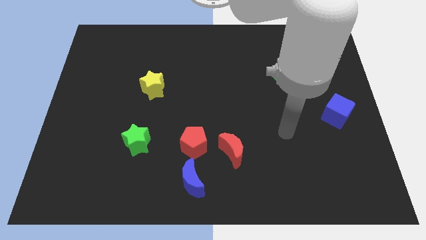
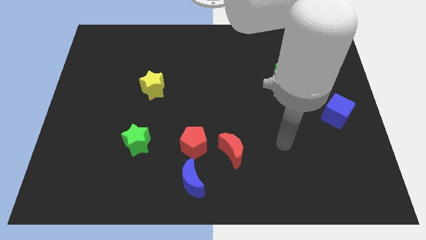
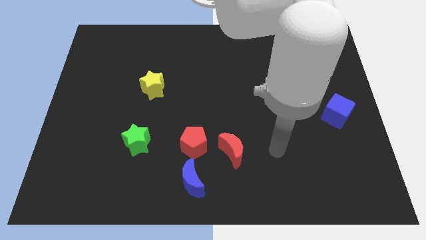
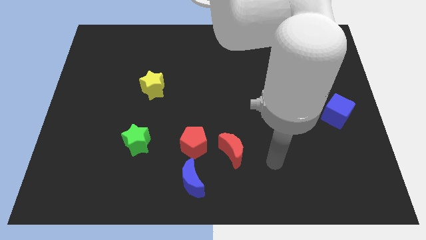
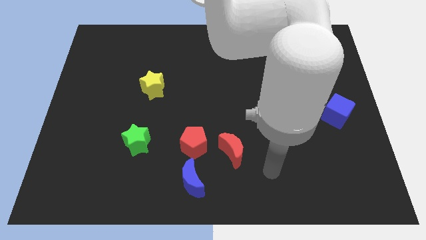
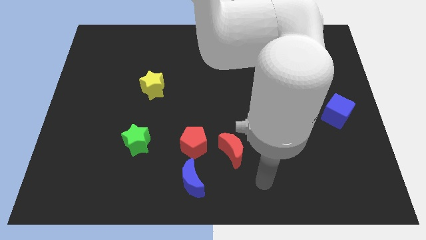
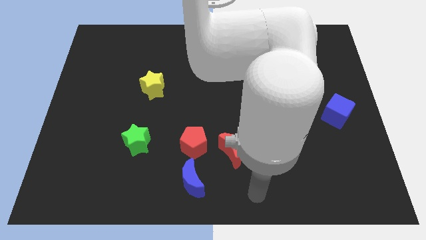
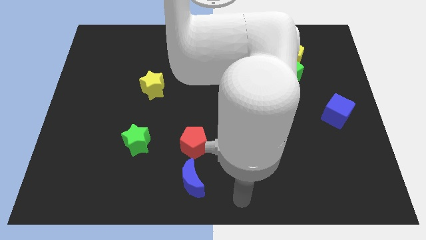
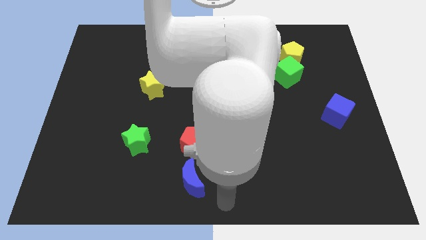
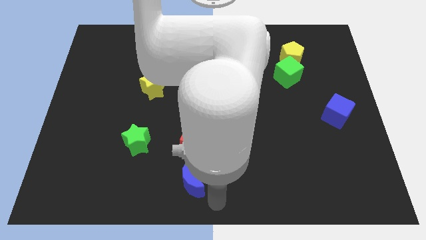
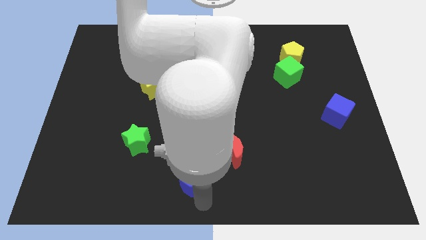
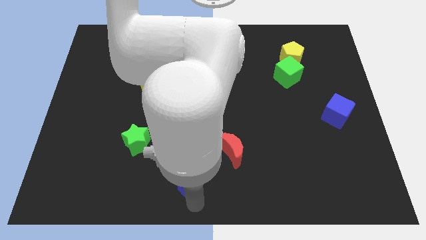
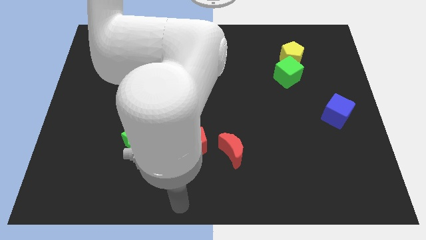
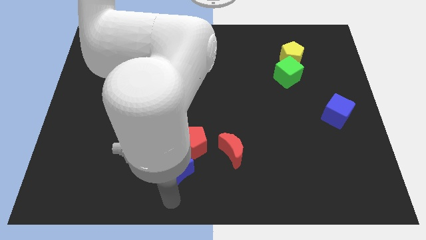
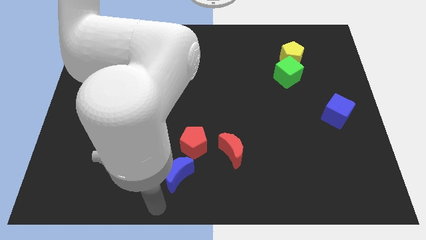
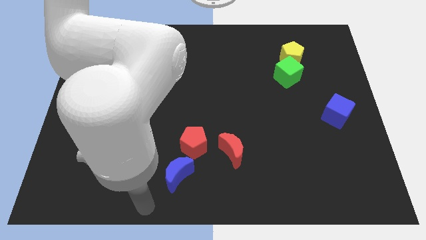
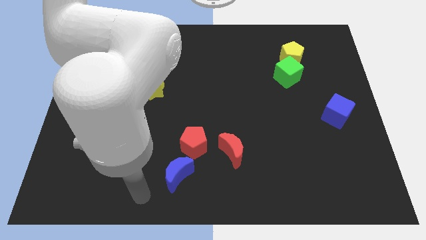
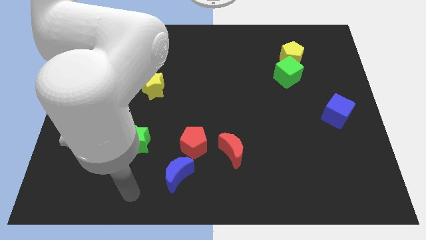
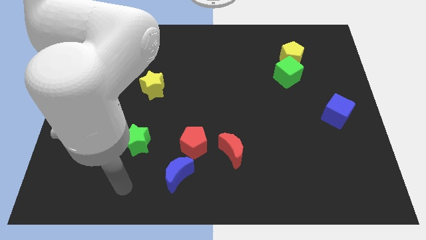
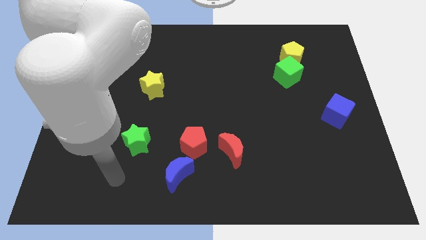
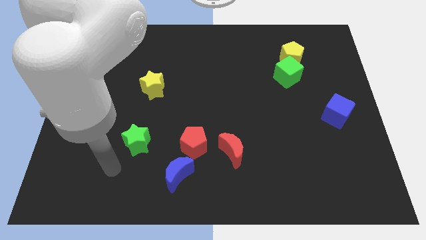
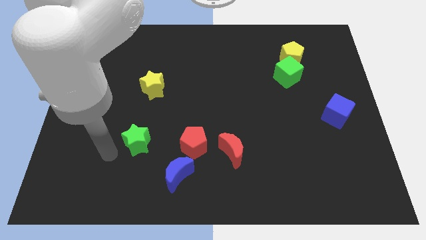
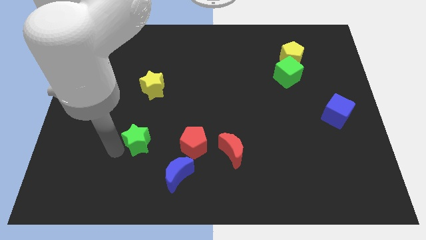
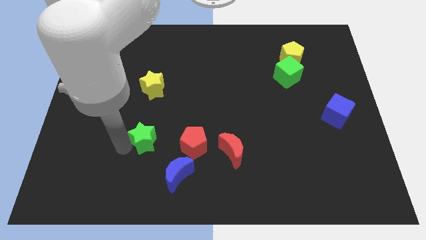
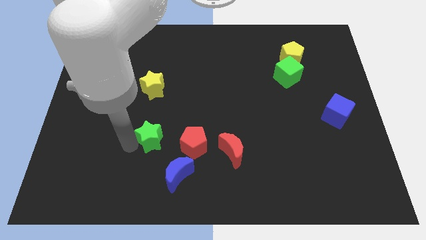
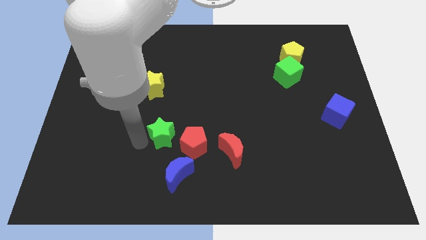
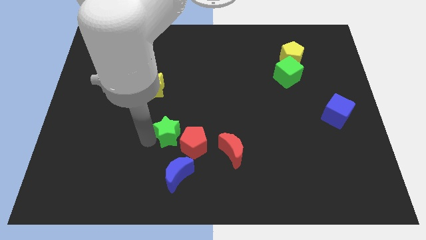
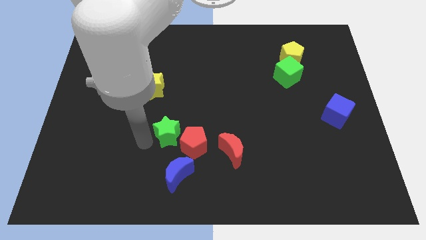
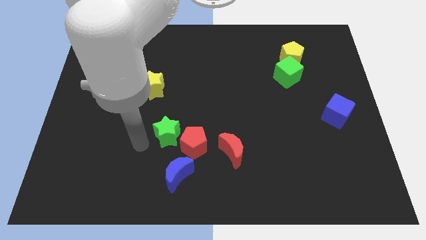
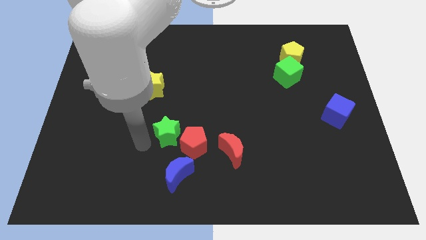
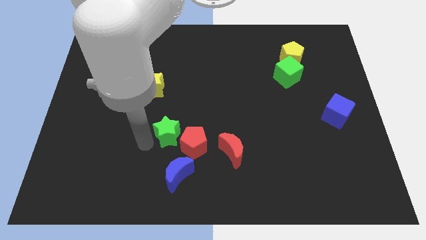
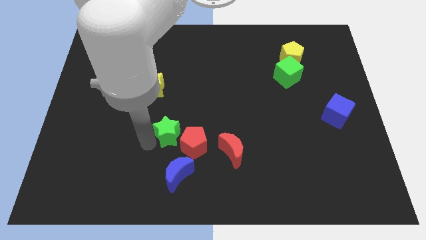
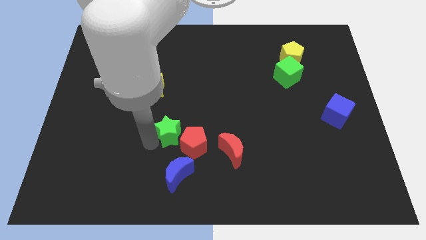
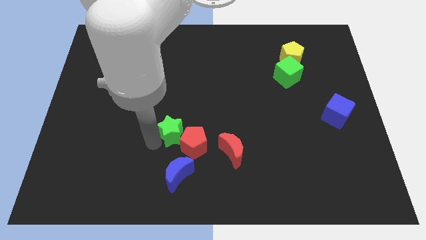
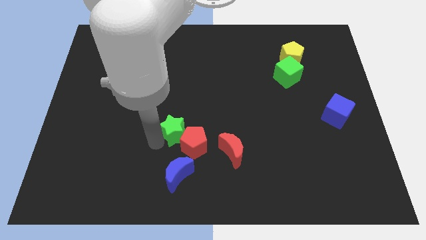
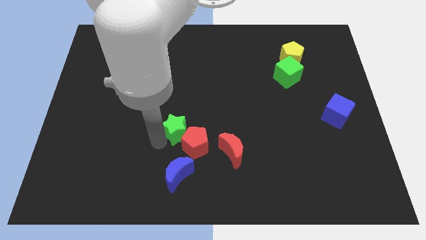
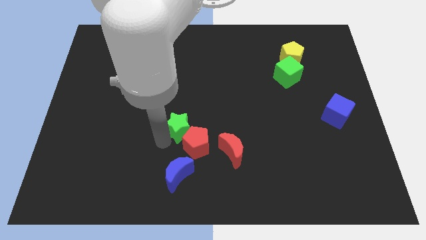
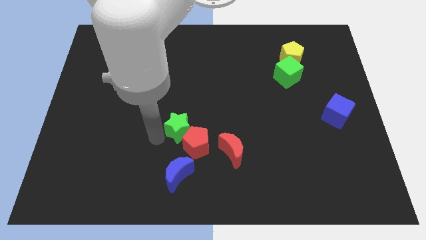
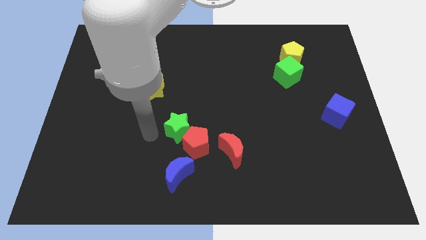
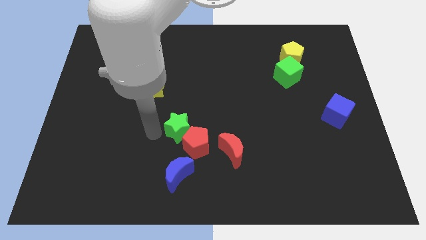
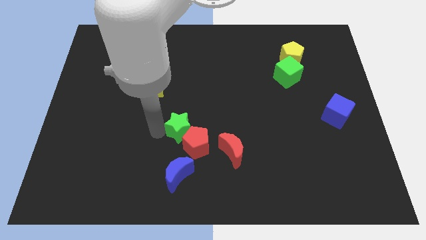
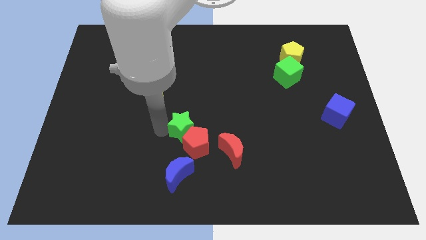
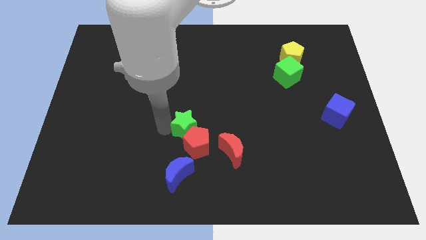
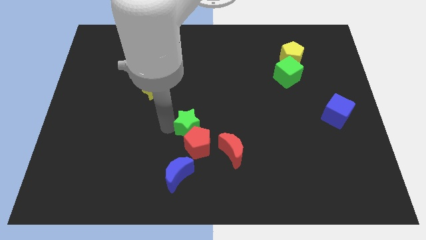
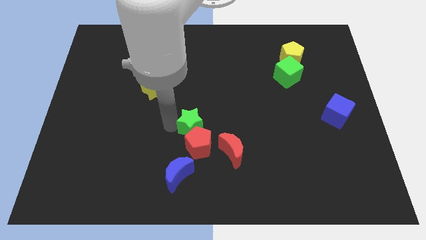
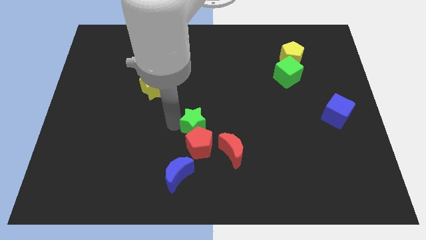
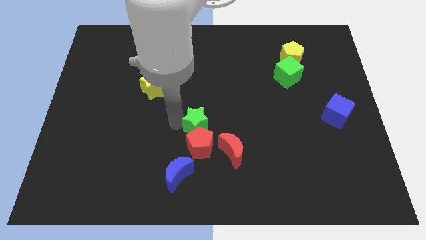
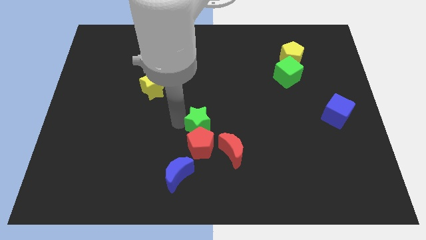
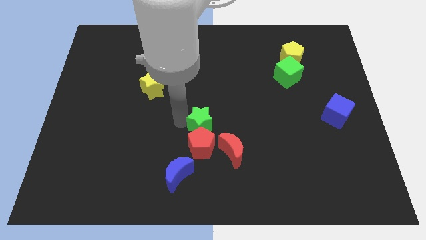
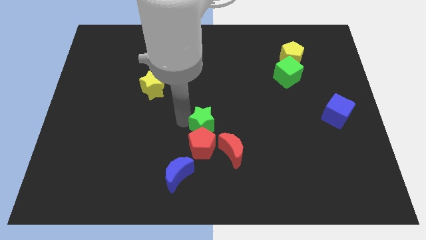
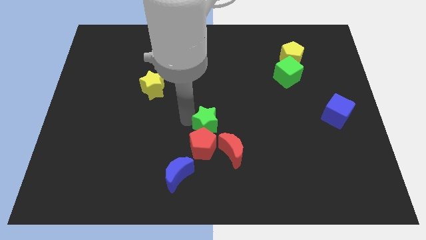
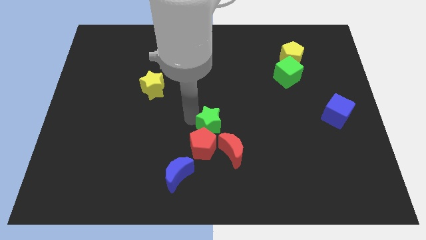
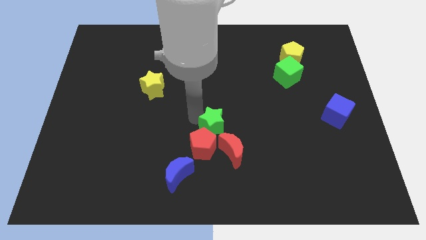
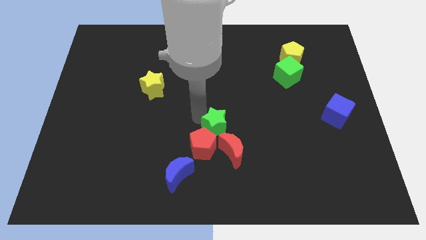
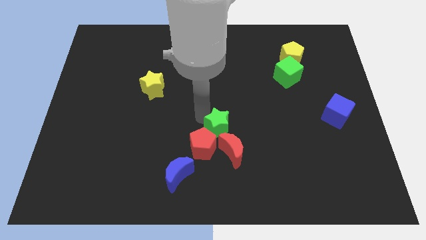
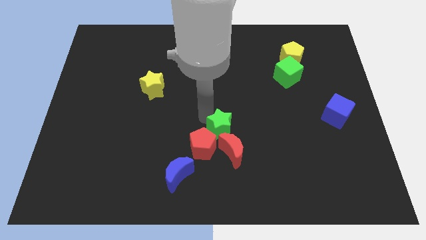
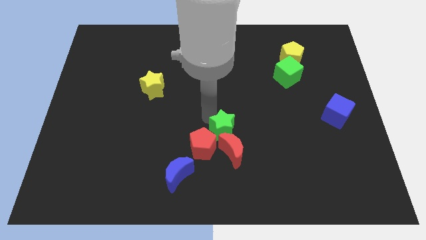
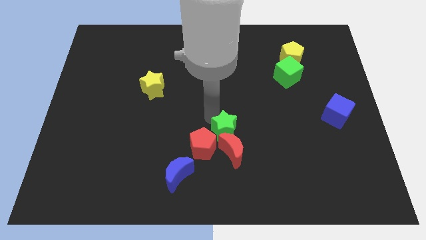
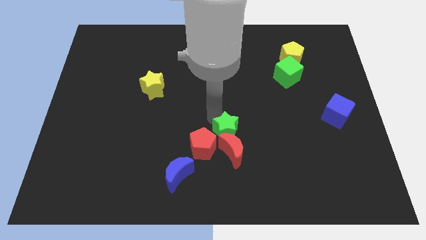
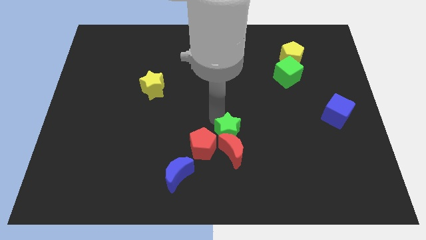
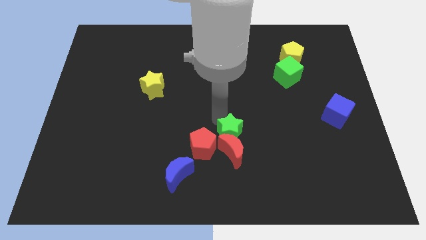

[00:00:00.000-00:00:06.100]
slide the green star to the right

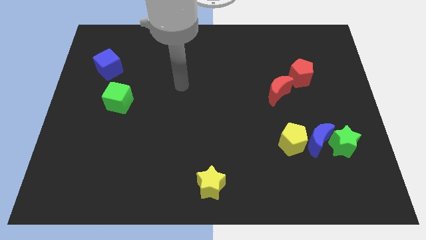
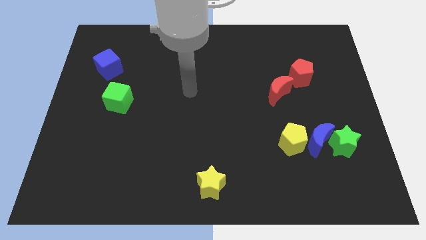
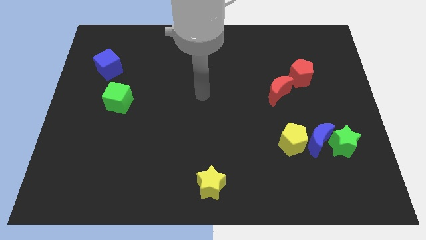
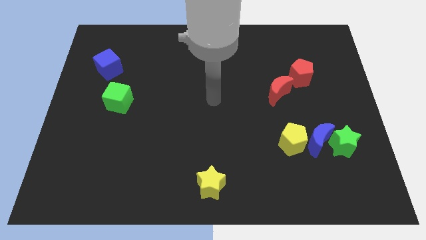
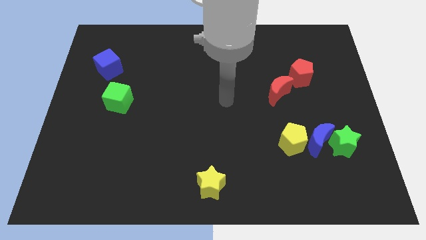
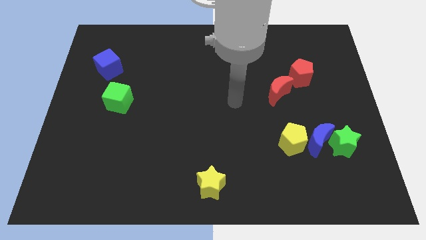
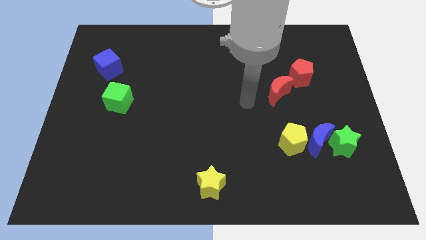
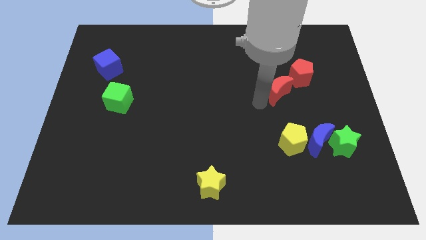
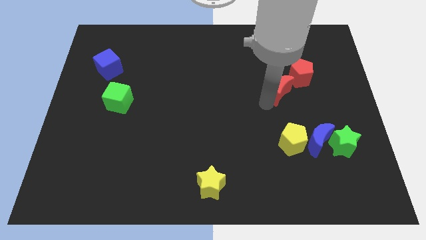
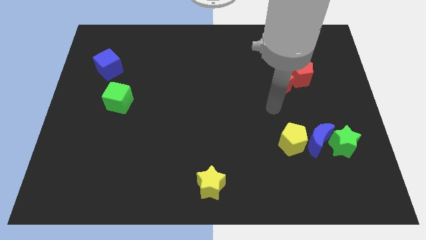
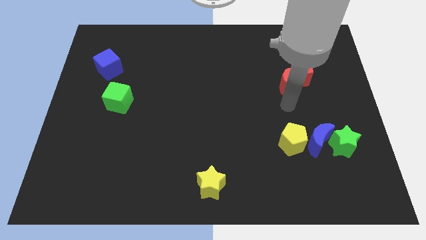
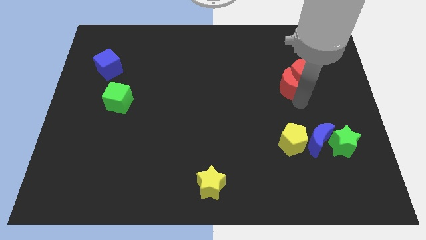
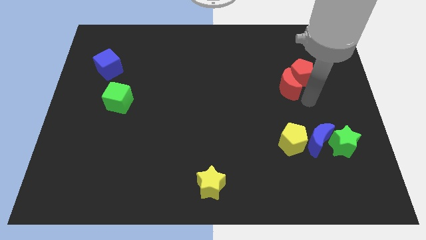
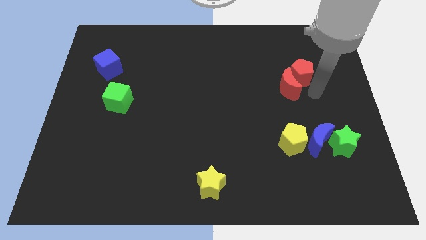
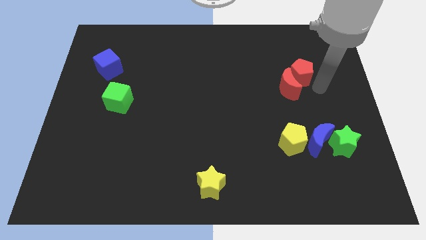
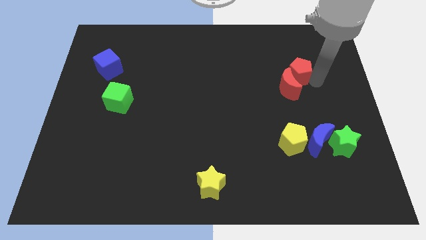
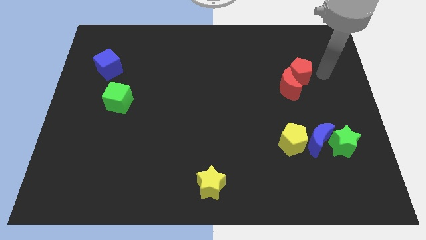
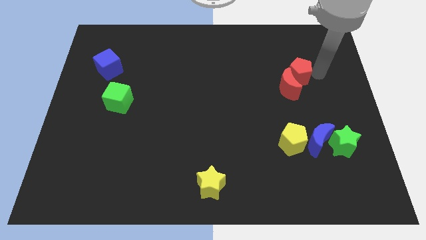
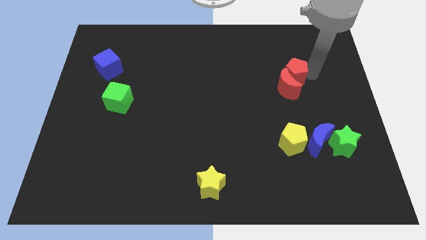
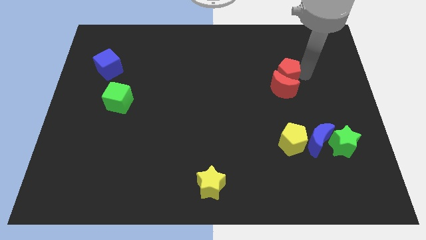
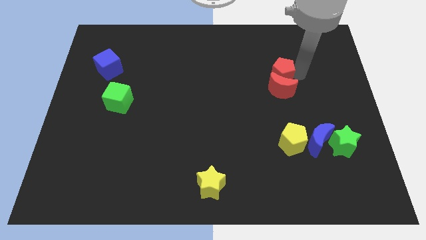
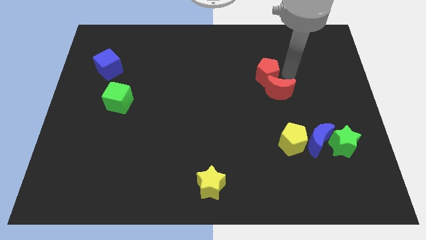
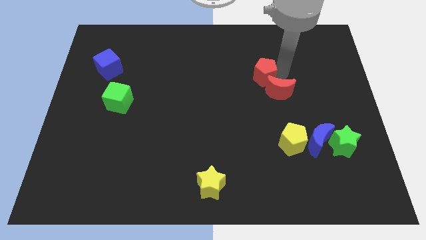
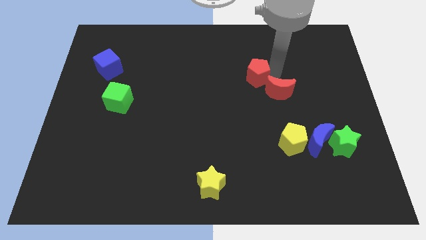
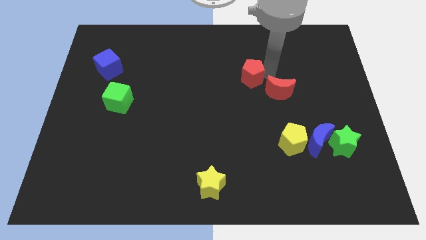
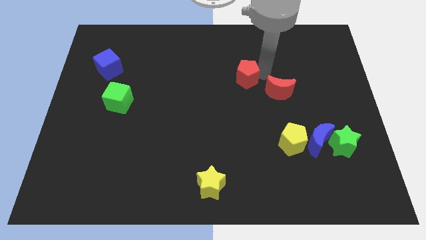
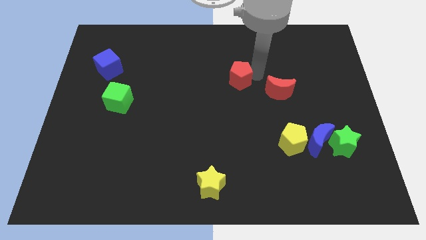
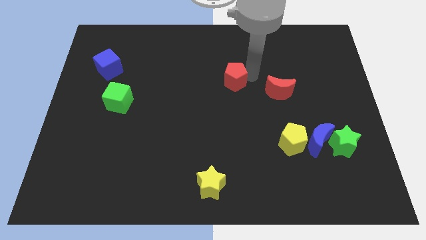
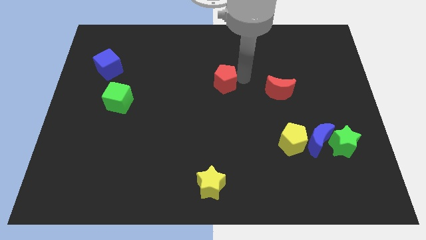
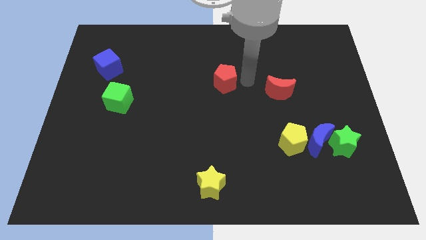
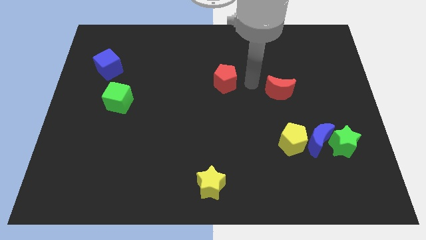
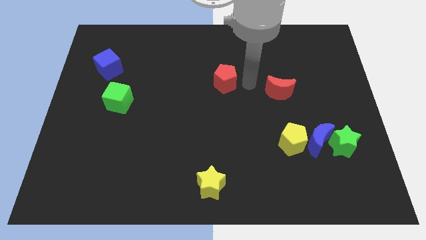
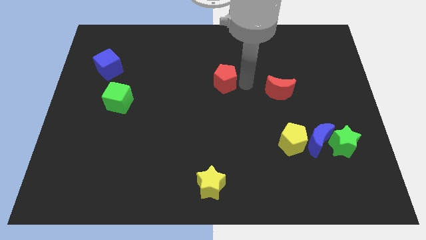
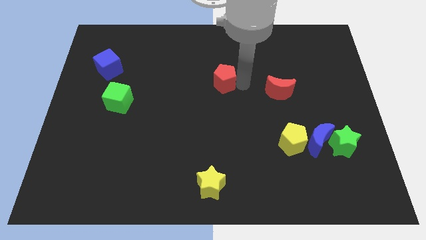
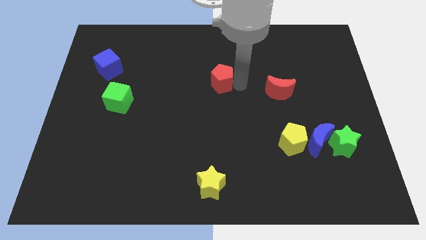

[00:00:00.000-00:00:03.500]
push the red pentagon to the left
